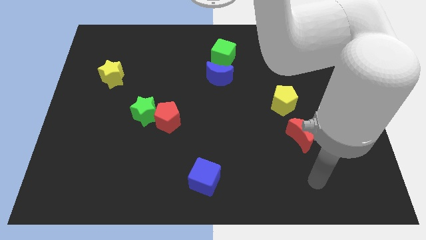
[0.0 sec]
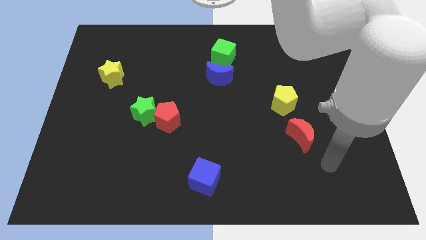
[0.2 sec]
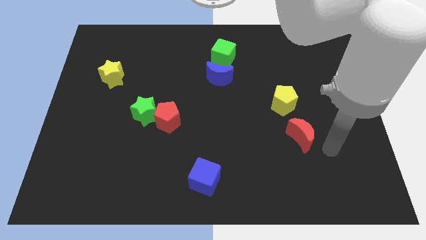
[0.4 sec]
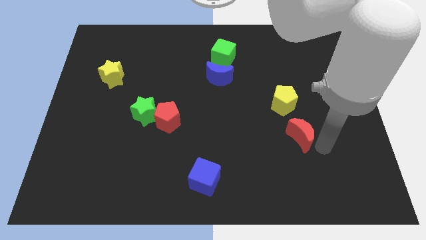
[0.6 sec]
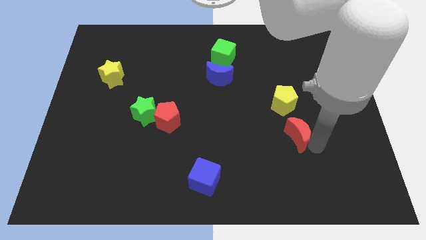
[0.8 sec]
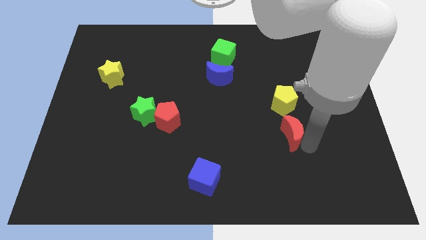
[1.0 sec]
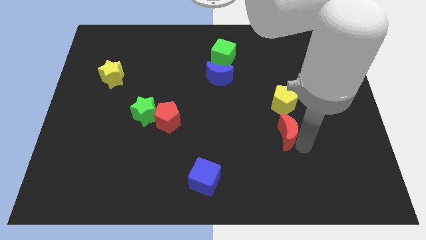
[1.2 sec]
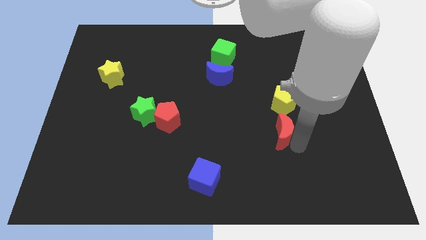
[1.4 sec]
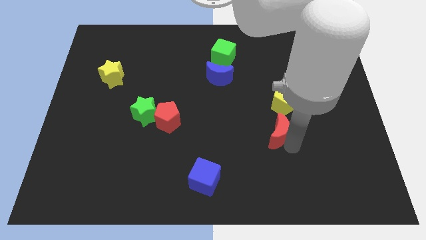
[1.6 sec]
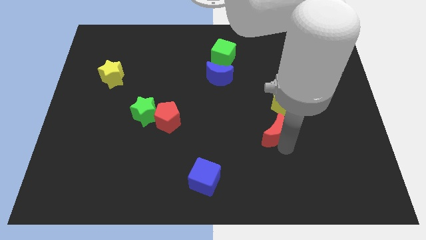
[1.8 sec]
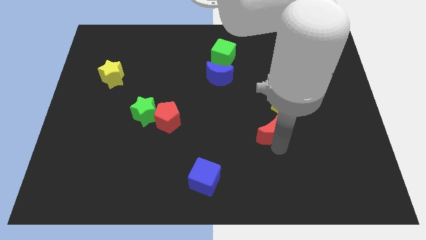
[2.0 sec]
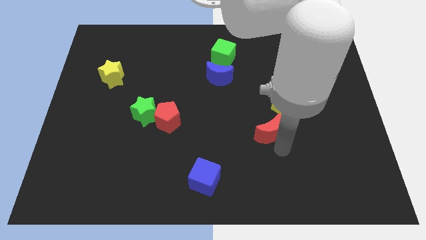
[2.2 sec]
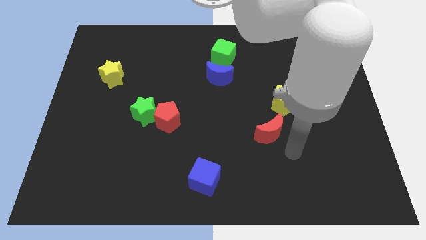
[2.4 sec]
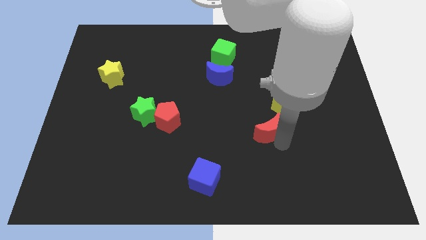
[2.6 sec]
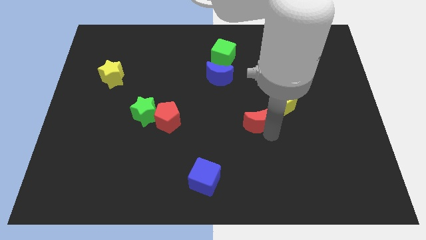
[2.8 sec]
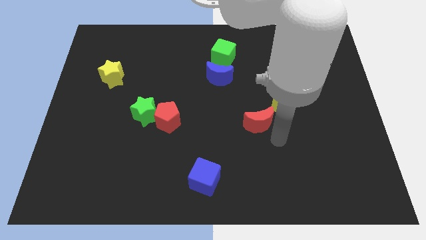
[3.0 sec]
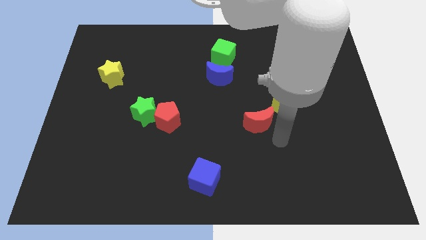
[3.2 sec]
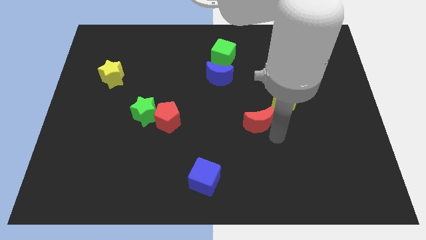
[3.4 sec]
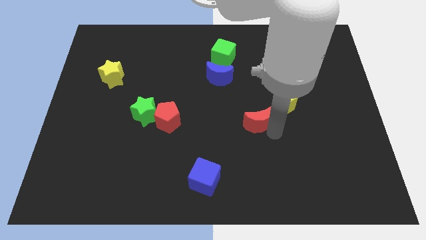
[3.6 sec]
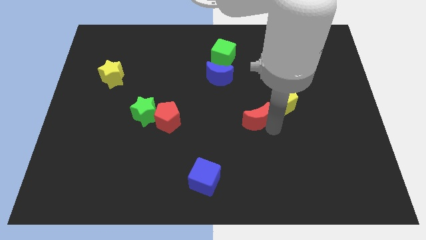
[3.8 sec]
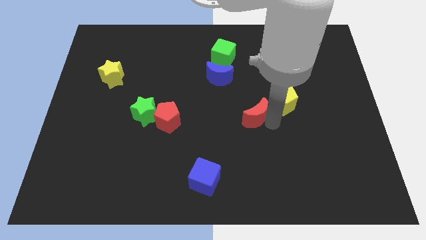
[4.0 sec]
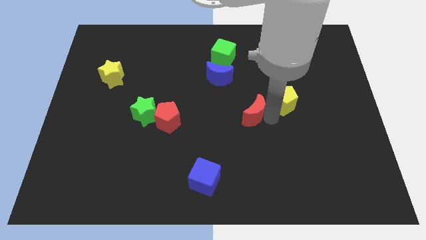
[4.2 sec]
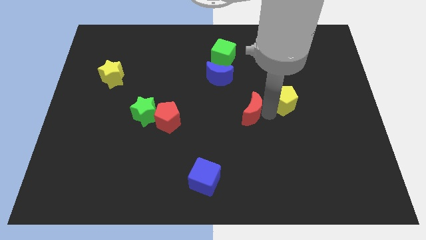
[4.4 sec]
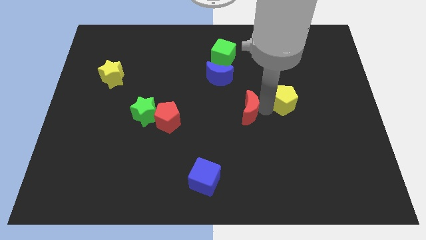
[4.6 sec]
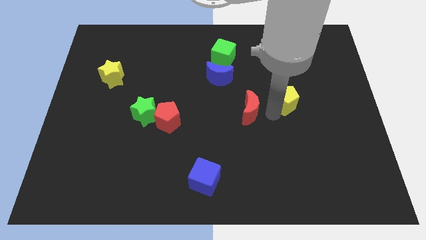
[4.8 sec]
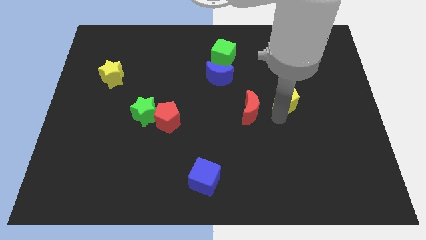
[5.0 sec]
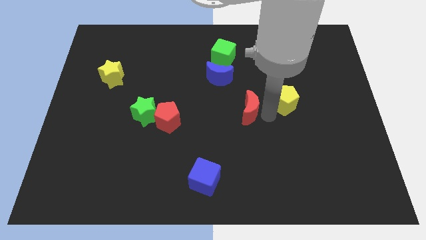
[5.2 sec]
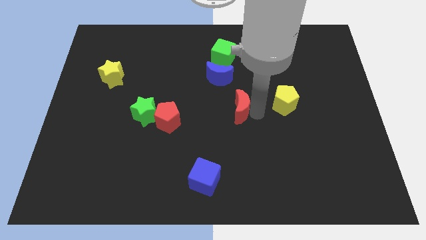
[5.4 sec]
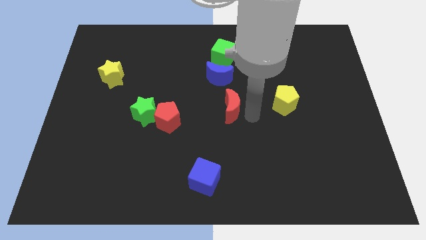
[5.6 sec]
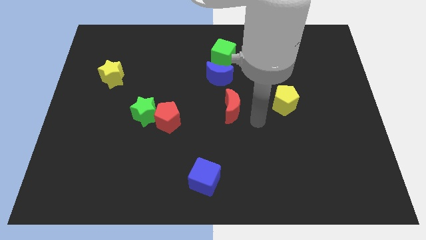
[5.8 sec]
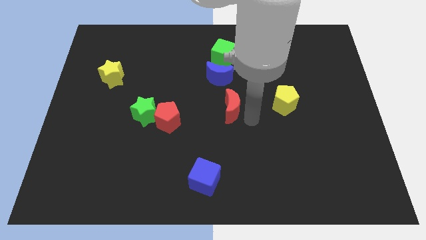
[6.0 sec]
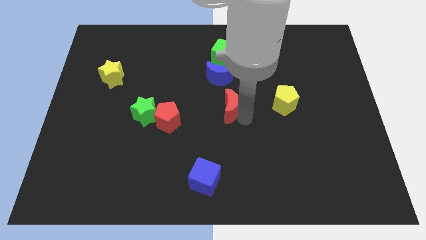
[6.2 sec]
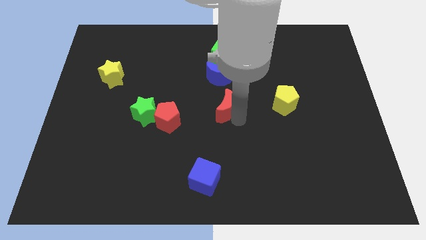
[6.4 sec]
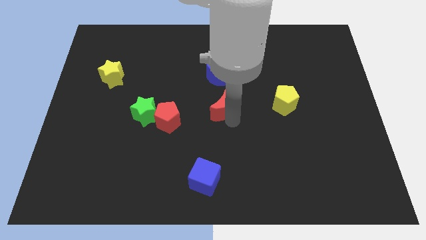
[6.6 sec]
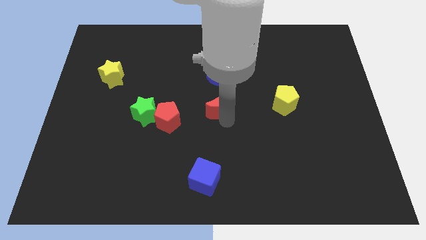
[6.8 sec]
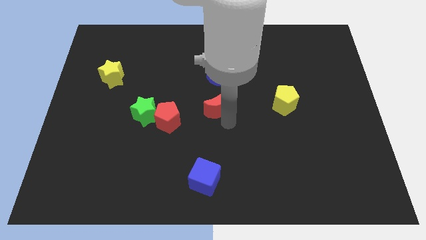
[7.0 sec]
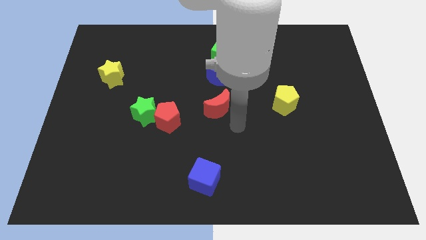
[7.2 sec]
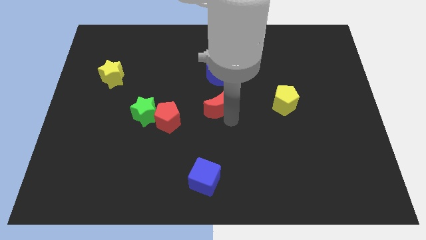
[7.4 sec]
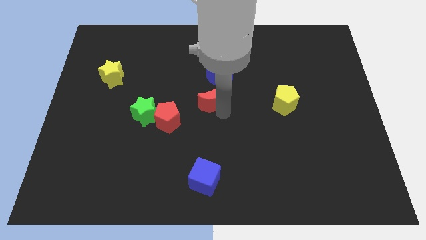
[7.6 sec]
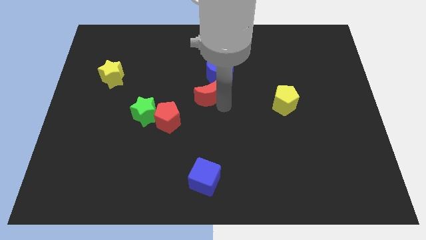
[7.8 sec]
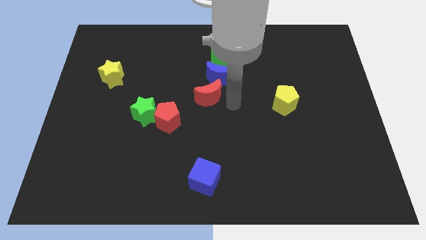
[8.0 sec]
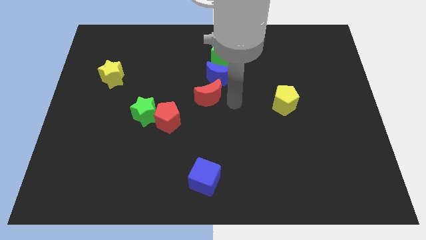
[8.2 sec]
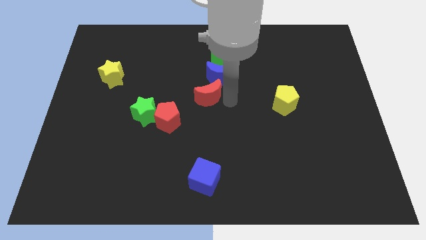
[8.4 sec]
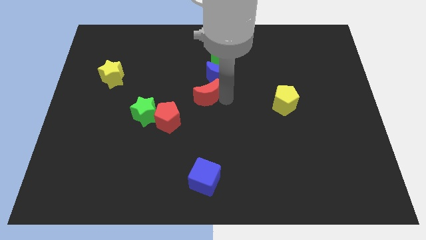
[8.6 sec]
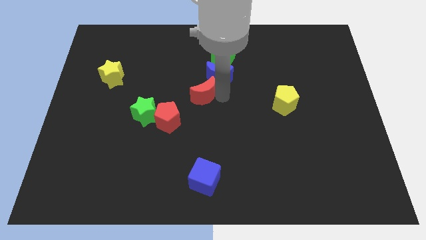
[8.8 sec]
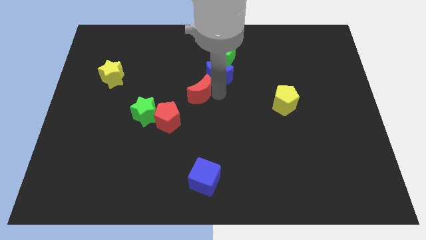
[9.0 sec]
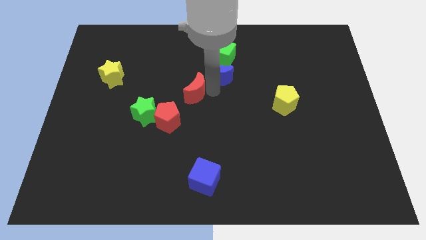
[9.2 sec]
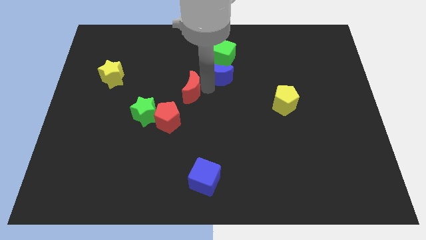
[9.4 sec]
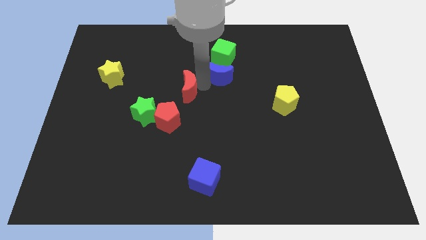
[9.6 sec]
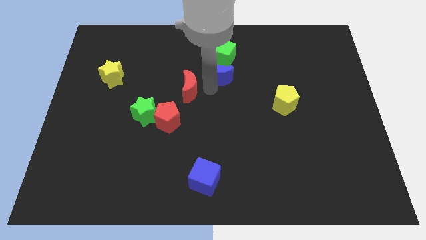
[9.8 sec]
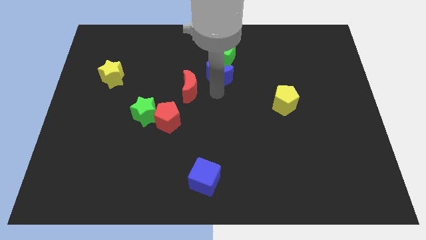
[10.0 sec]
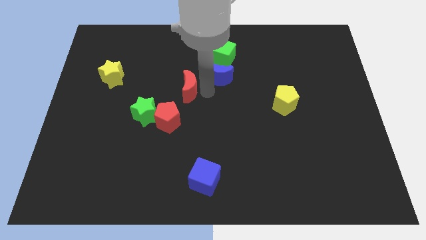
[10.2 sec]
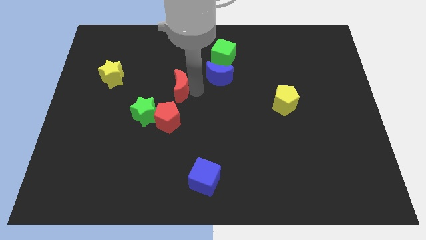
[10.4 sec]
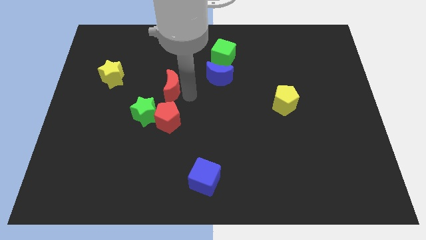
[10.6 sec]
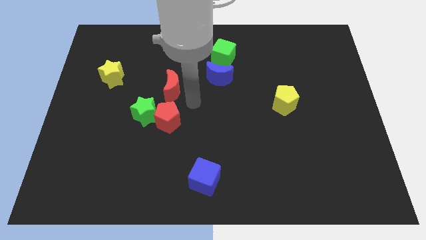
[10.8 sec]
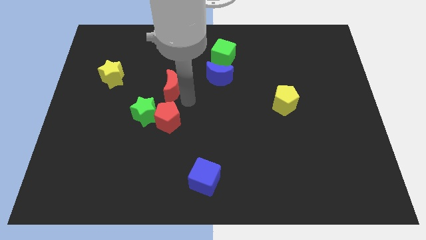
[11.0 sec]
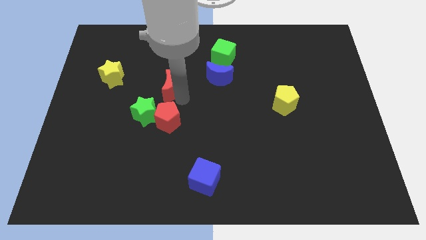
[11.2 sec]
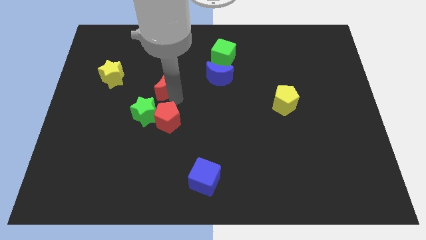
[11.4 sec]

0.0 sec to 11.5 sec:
push the red moon just right of the yellow star
